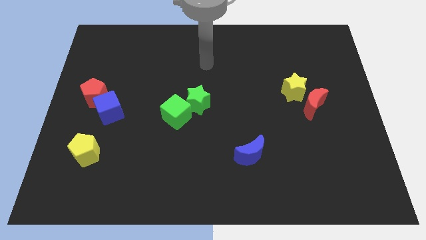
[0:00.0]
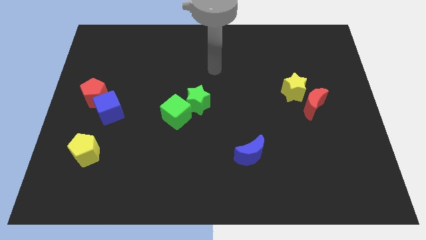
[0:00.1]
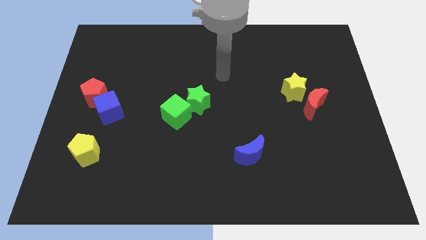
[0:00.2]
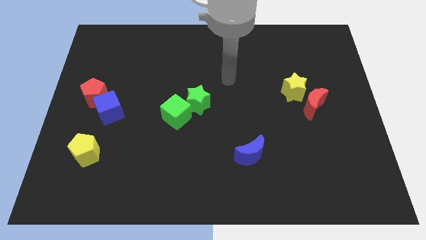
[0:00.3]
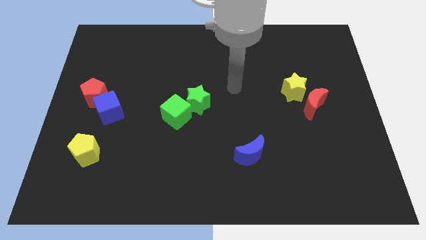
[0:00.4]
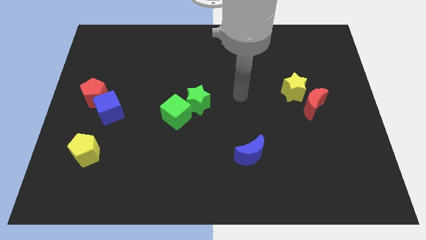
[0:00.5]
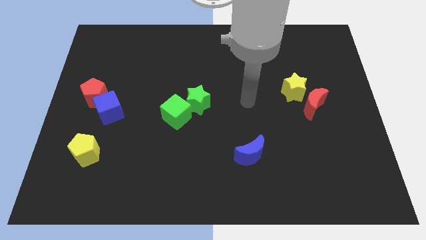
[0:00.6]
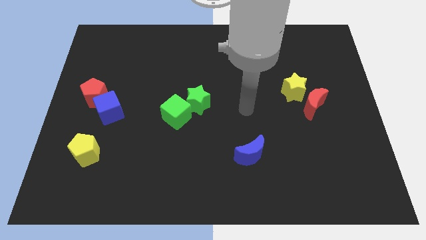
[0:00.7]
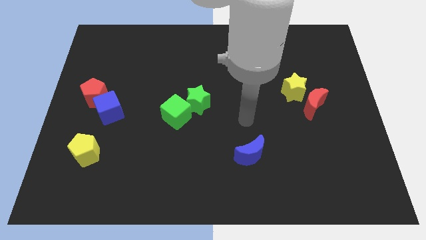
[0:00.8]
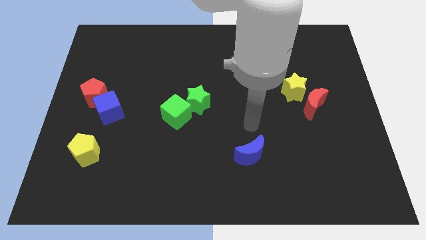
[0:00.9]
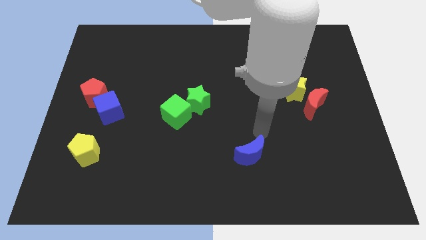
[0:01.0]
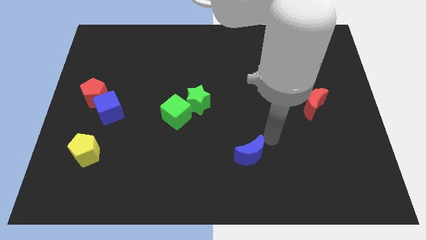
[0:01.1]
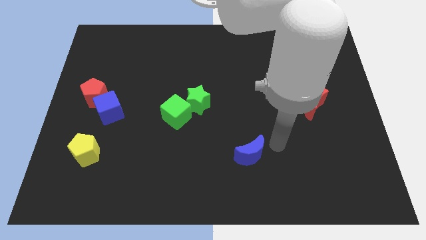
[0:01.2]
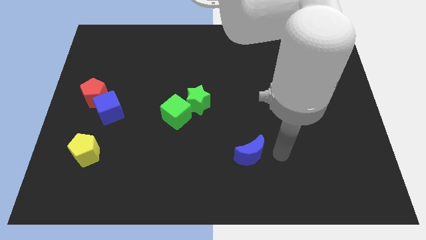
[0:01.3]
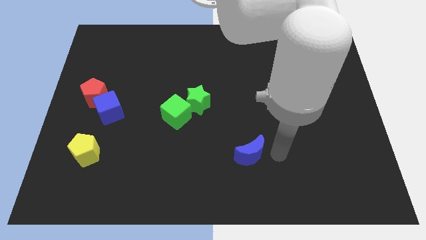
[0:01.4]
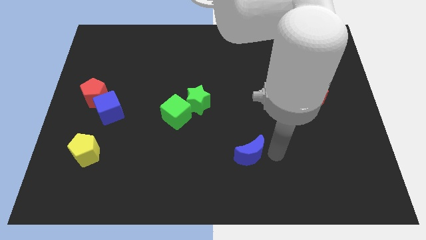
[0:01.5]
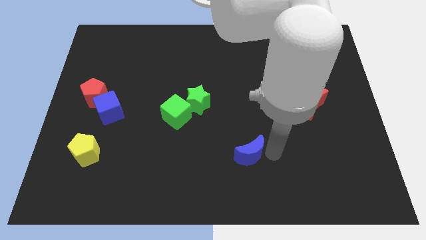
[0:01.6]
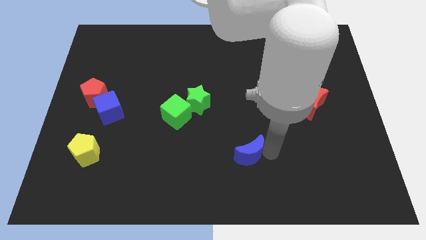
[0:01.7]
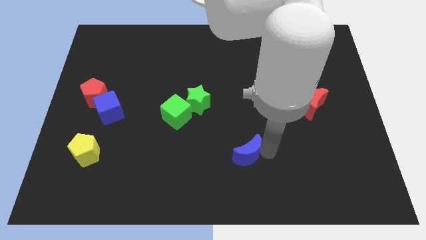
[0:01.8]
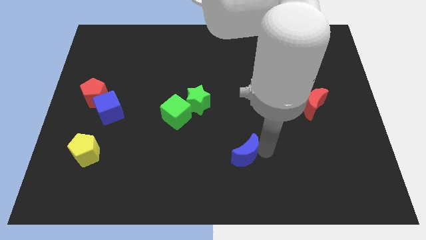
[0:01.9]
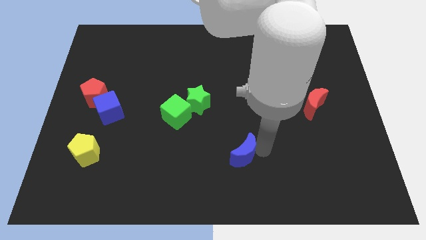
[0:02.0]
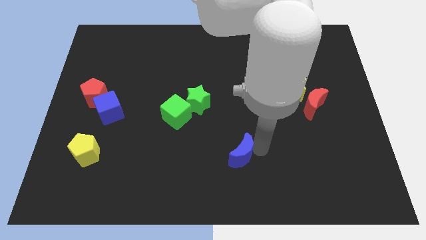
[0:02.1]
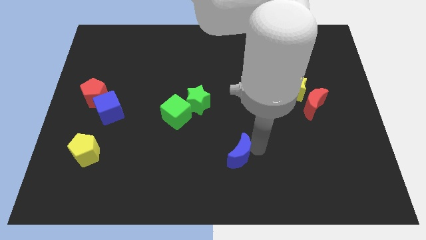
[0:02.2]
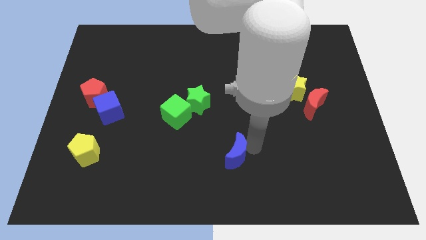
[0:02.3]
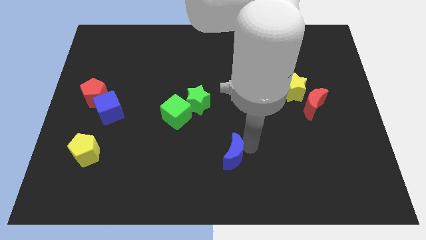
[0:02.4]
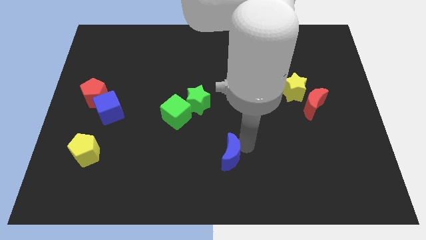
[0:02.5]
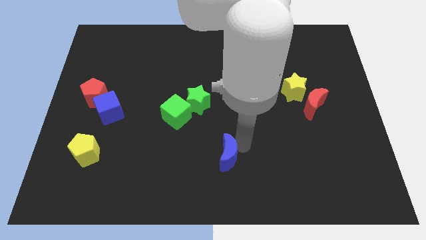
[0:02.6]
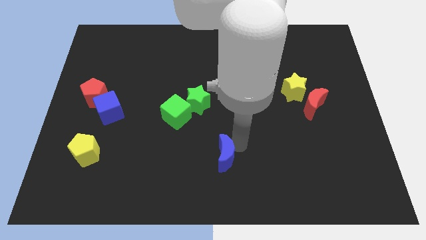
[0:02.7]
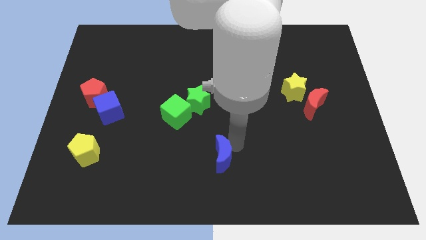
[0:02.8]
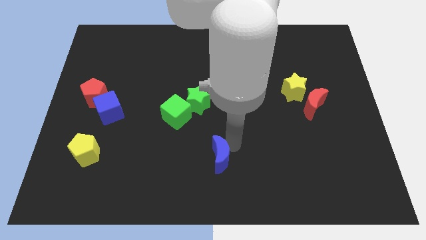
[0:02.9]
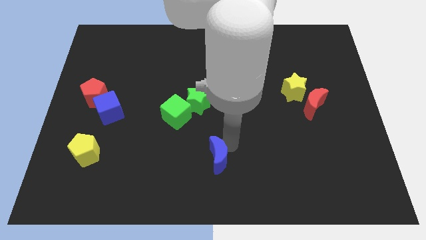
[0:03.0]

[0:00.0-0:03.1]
slide the blue moon somewhat left

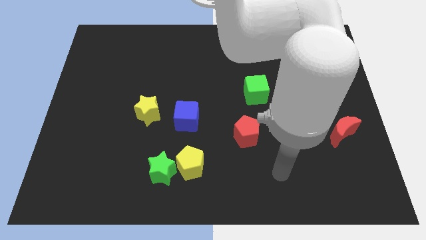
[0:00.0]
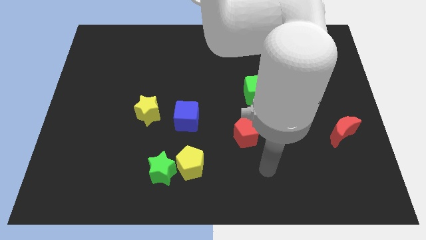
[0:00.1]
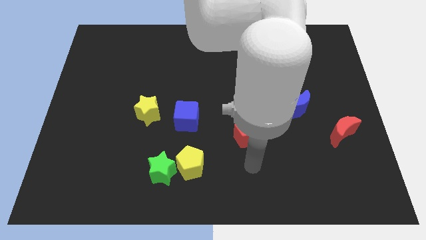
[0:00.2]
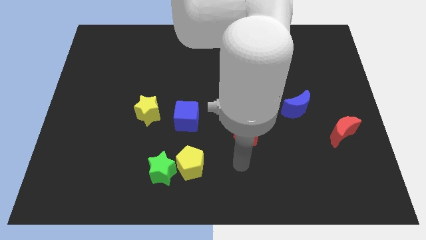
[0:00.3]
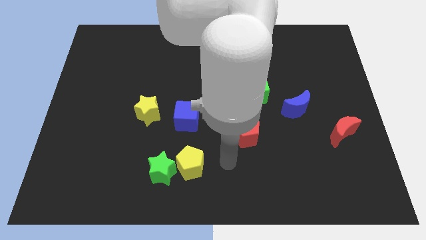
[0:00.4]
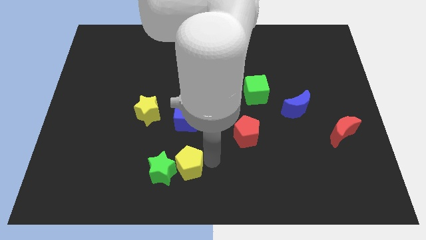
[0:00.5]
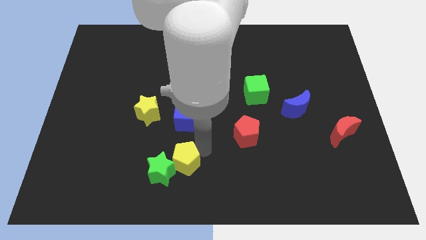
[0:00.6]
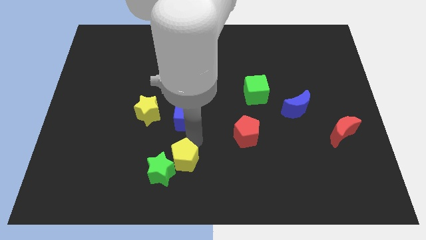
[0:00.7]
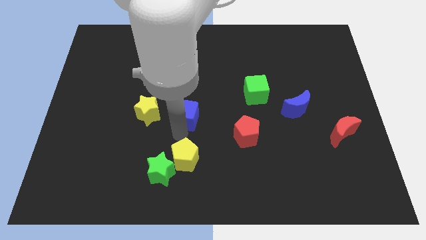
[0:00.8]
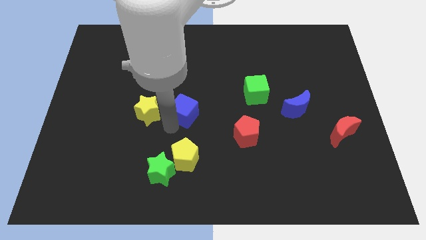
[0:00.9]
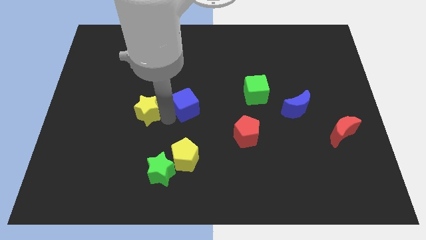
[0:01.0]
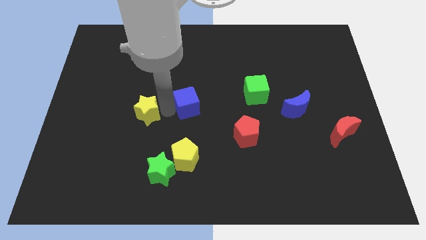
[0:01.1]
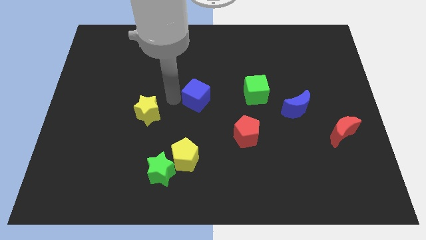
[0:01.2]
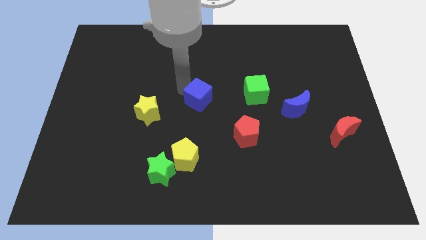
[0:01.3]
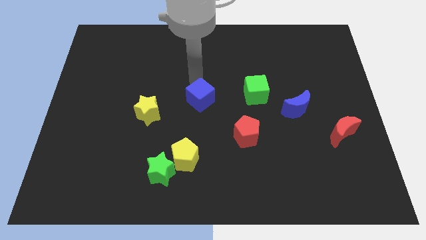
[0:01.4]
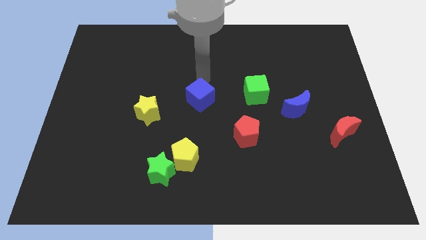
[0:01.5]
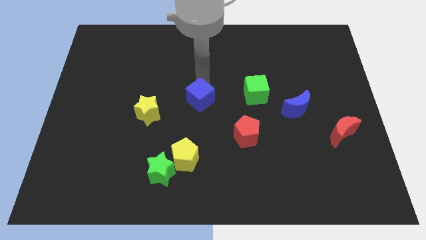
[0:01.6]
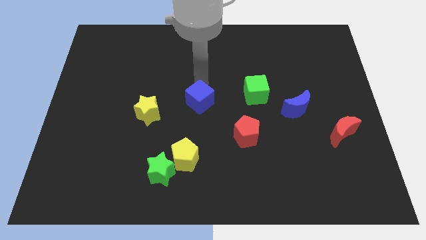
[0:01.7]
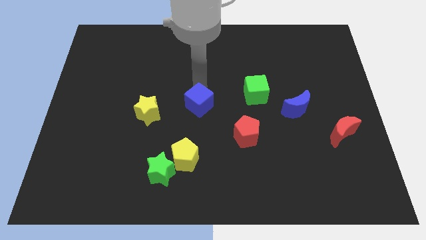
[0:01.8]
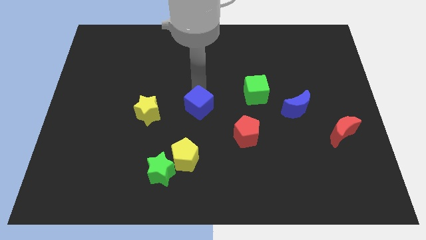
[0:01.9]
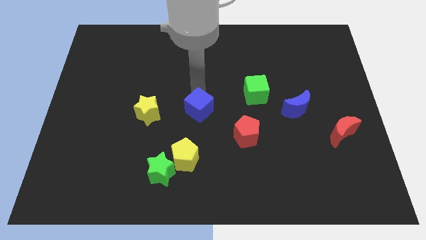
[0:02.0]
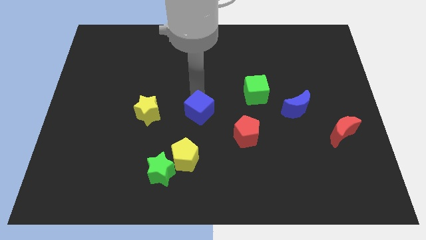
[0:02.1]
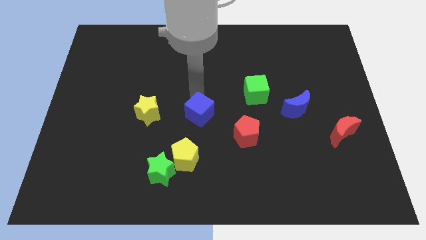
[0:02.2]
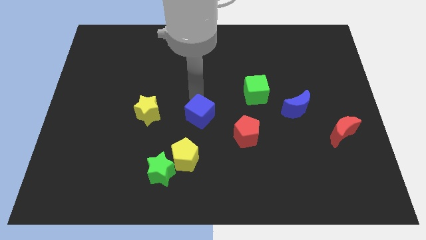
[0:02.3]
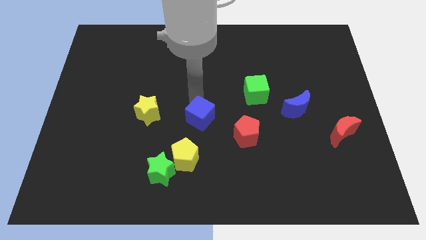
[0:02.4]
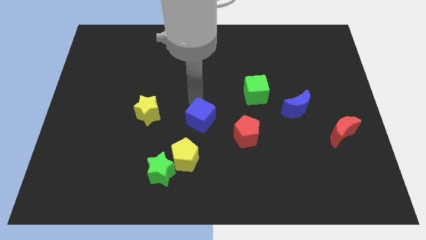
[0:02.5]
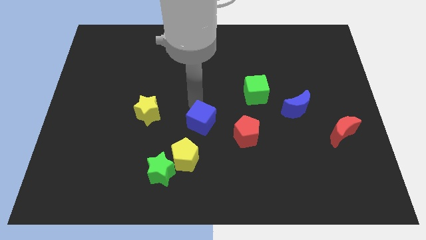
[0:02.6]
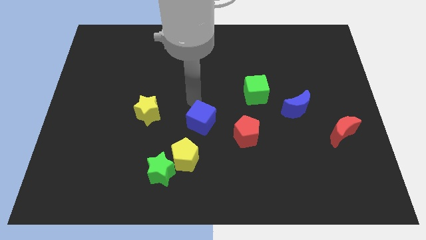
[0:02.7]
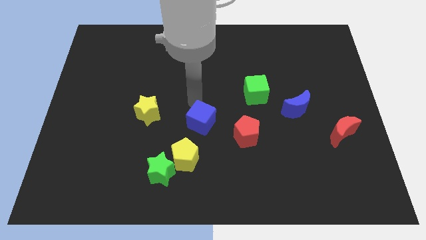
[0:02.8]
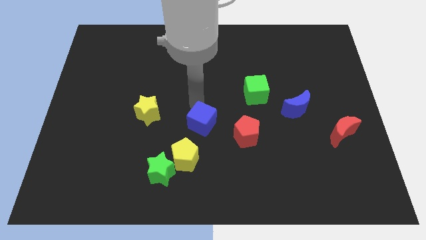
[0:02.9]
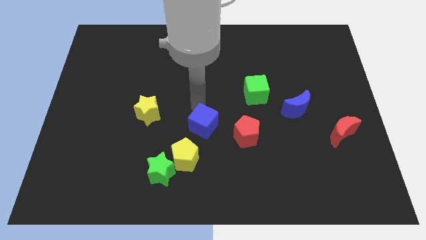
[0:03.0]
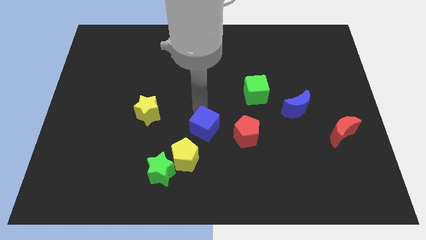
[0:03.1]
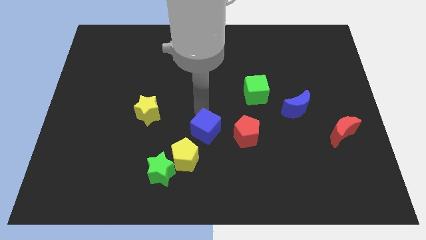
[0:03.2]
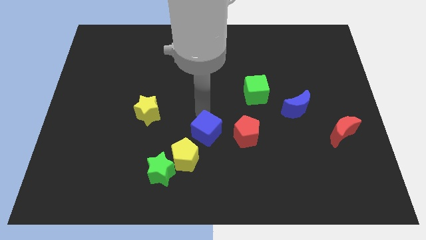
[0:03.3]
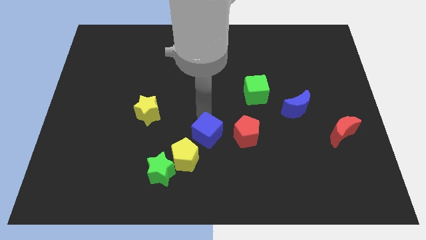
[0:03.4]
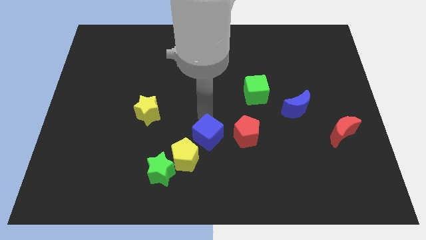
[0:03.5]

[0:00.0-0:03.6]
slide the blue cube down and then to the right a little bit

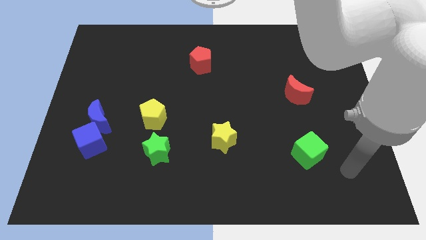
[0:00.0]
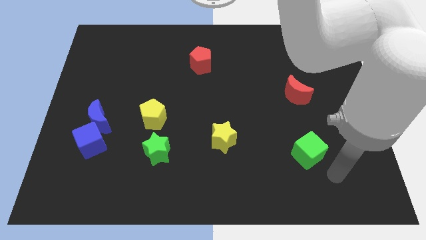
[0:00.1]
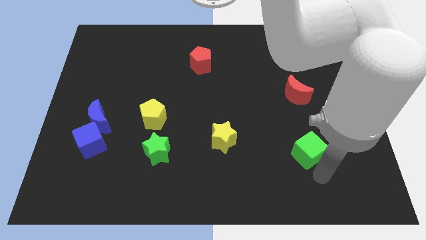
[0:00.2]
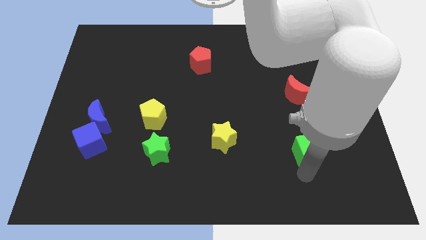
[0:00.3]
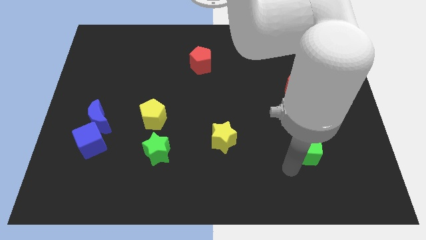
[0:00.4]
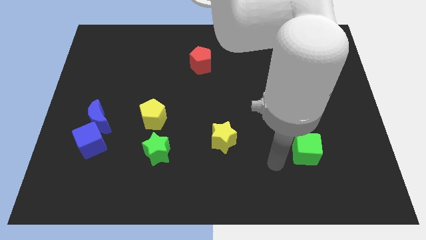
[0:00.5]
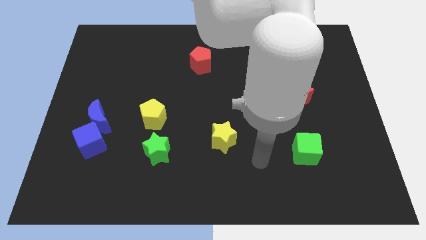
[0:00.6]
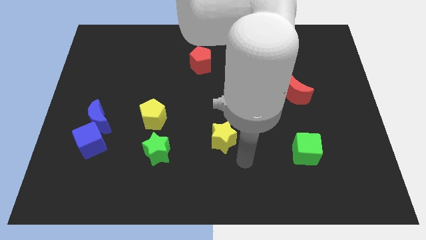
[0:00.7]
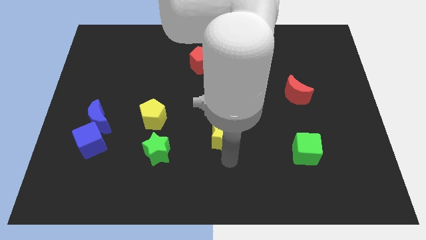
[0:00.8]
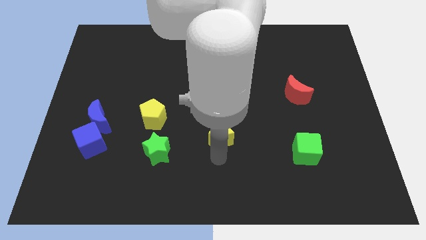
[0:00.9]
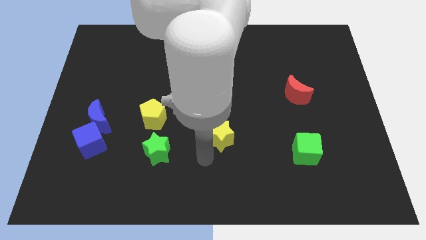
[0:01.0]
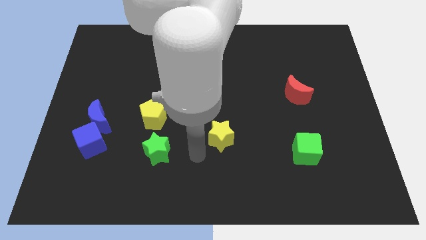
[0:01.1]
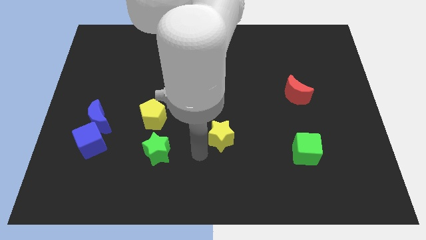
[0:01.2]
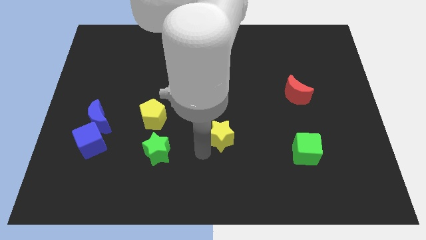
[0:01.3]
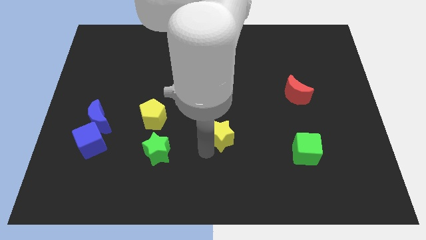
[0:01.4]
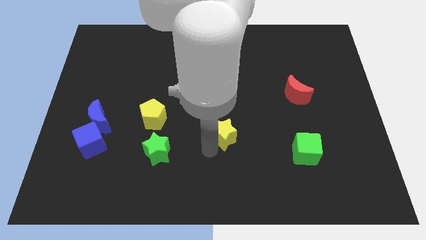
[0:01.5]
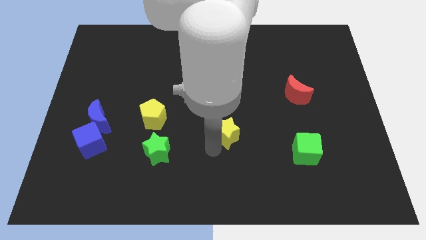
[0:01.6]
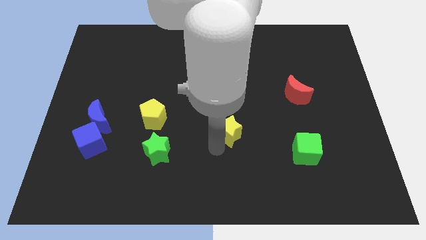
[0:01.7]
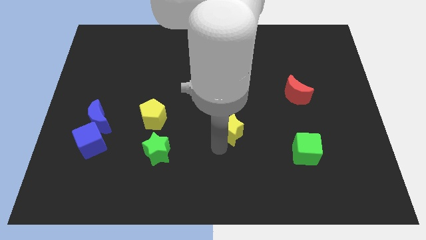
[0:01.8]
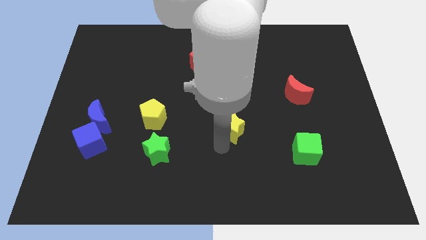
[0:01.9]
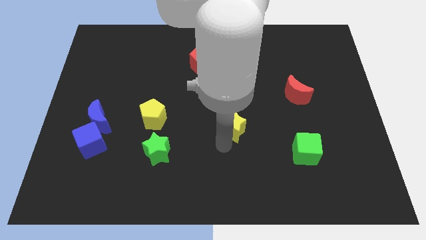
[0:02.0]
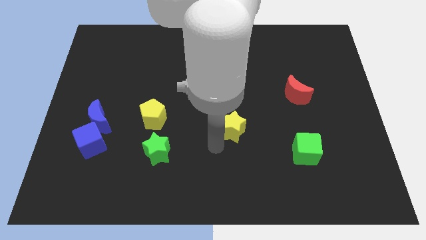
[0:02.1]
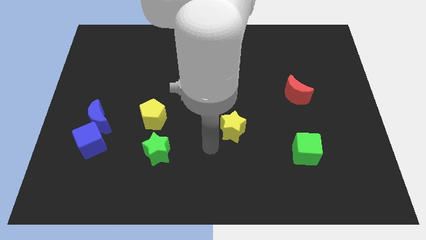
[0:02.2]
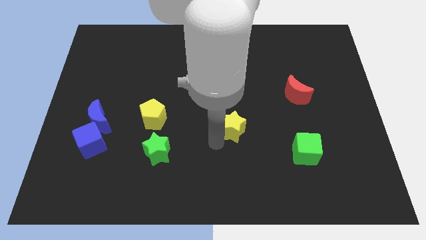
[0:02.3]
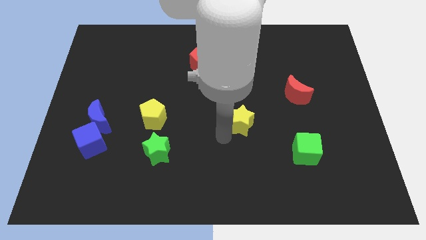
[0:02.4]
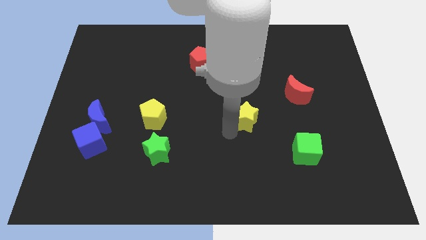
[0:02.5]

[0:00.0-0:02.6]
move the yellow star a bit upwards and then right
